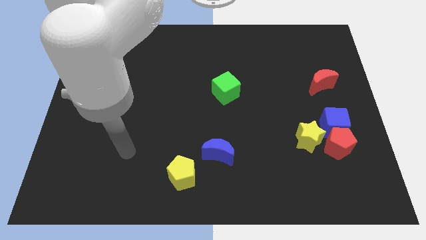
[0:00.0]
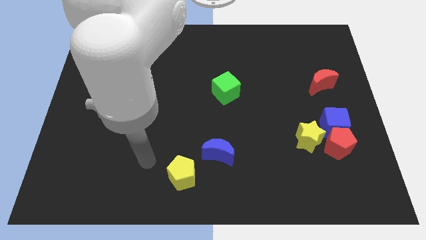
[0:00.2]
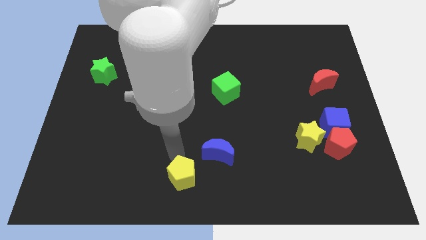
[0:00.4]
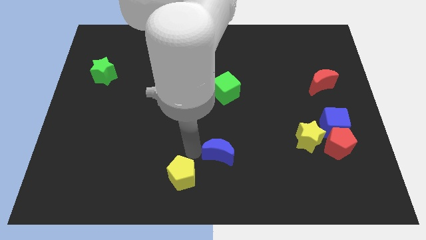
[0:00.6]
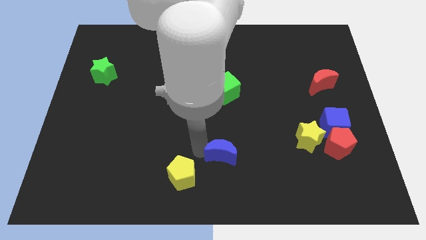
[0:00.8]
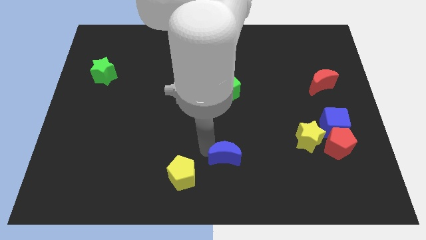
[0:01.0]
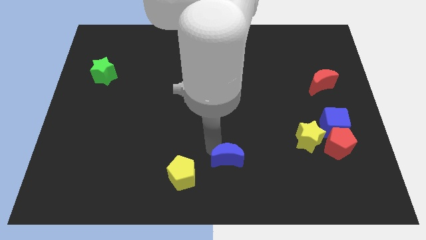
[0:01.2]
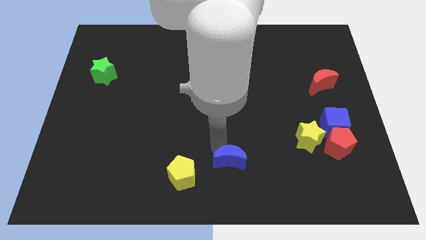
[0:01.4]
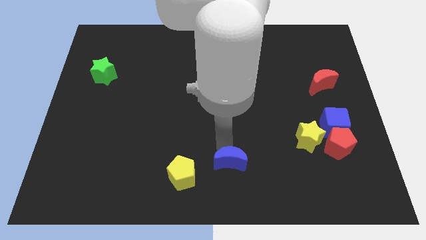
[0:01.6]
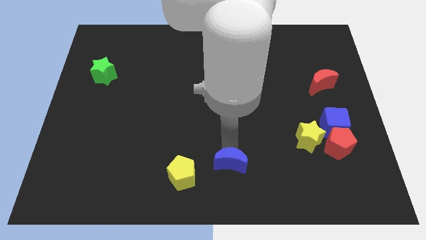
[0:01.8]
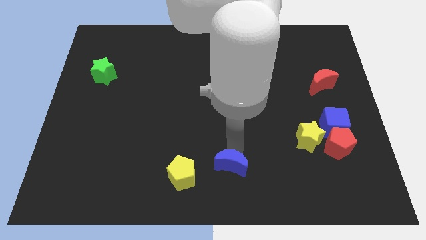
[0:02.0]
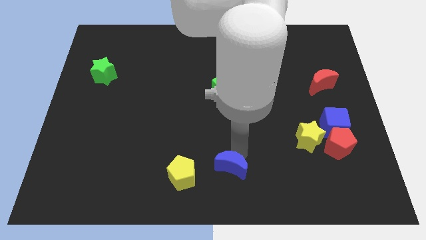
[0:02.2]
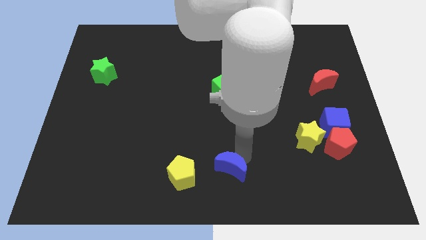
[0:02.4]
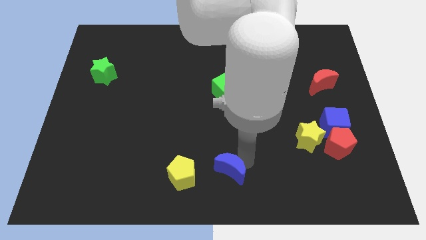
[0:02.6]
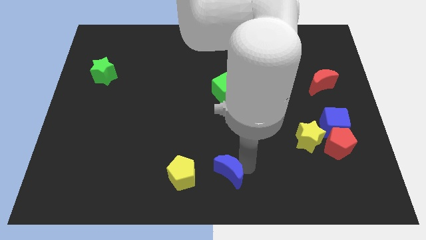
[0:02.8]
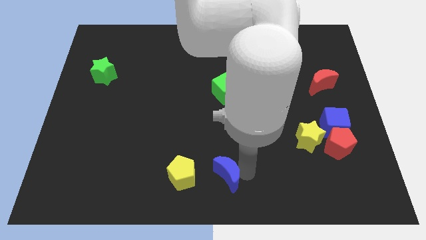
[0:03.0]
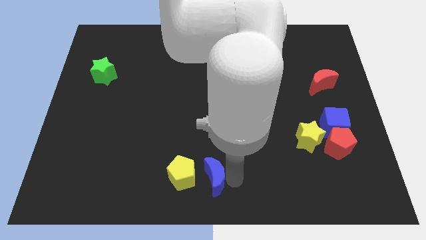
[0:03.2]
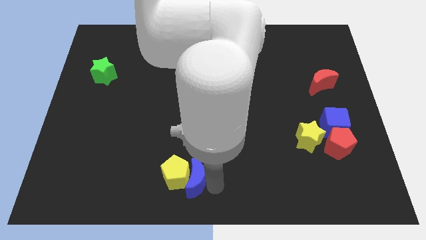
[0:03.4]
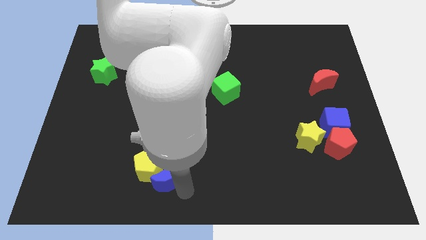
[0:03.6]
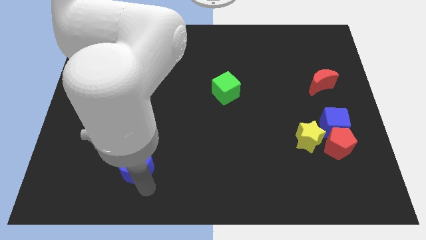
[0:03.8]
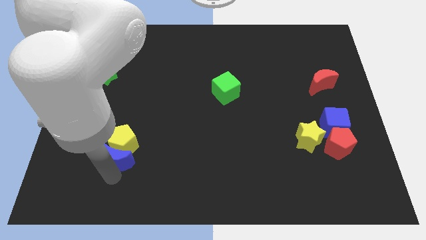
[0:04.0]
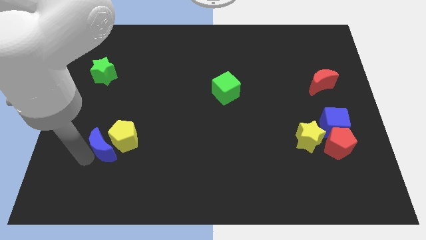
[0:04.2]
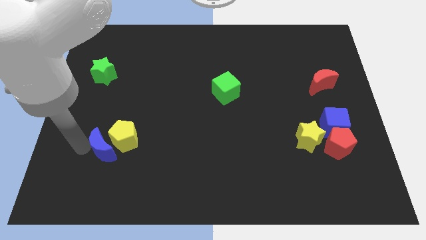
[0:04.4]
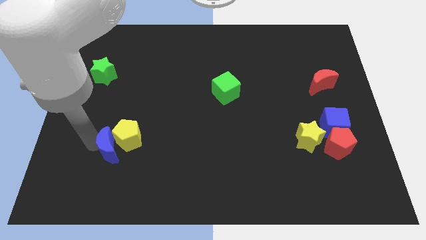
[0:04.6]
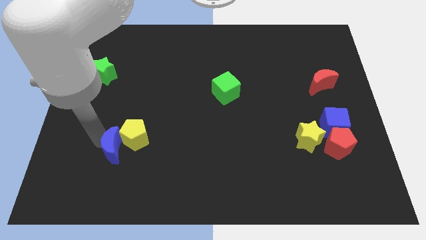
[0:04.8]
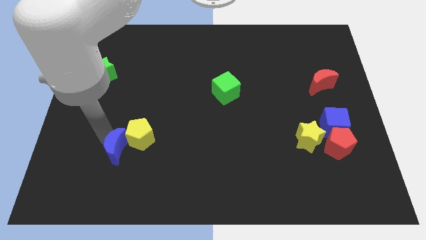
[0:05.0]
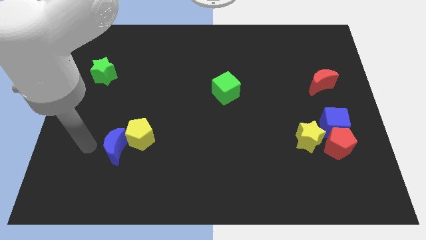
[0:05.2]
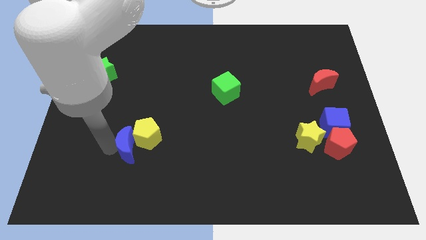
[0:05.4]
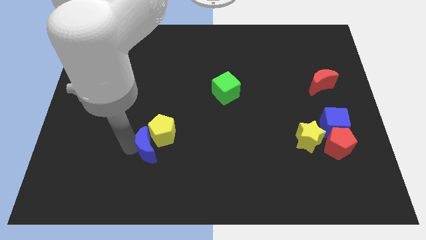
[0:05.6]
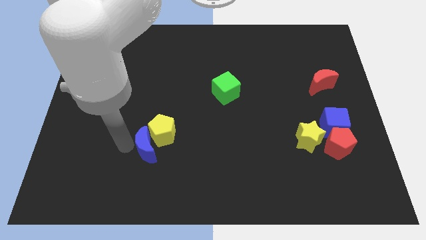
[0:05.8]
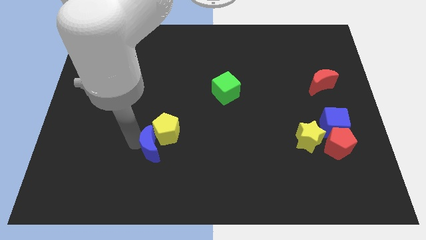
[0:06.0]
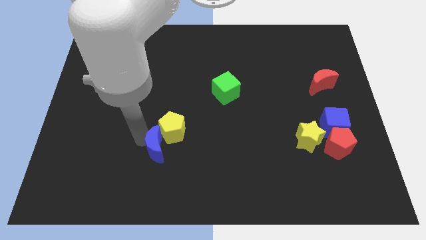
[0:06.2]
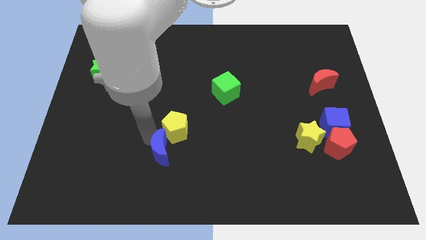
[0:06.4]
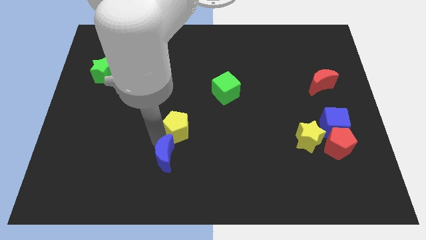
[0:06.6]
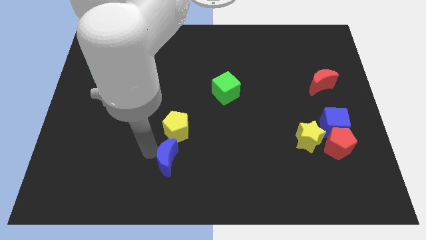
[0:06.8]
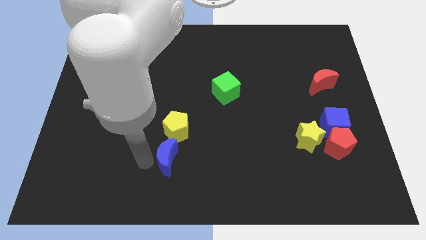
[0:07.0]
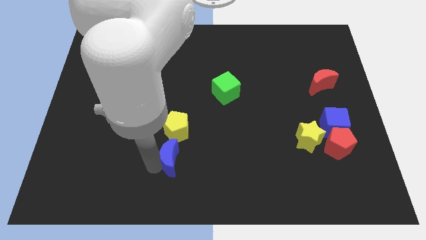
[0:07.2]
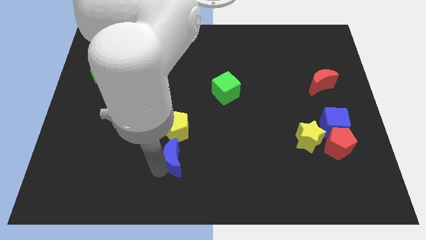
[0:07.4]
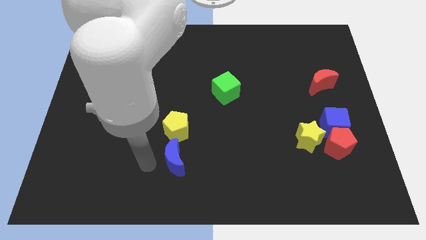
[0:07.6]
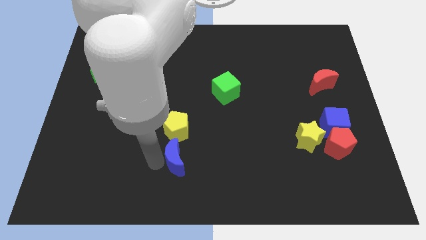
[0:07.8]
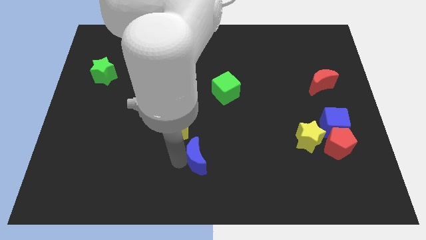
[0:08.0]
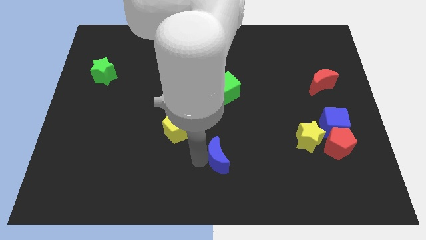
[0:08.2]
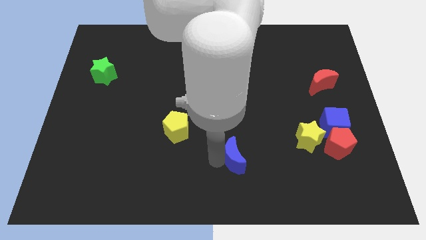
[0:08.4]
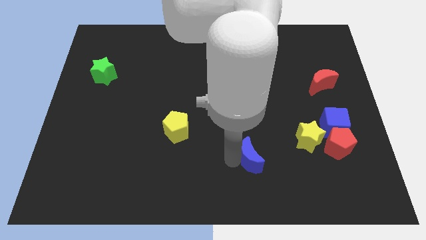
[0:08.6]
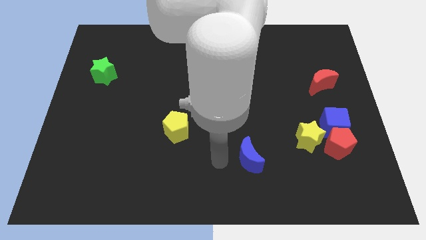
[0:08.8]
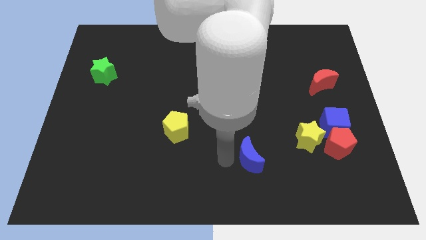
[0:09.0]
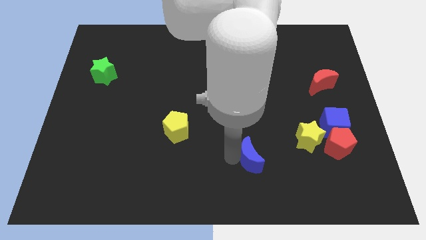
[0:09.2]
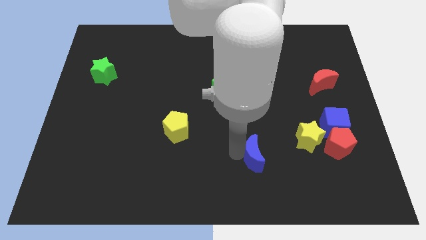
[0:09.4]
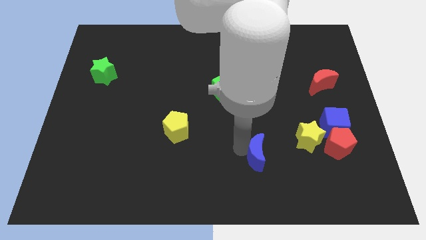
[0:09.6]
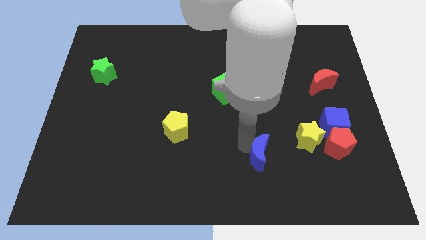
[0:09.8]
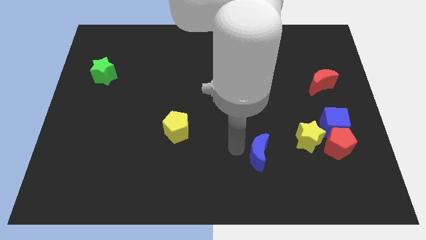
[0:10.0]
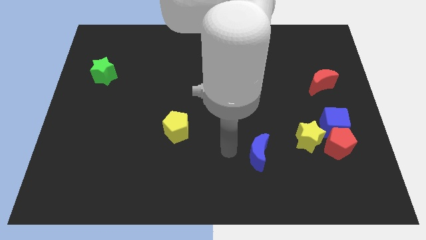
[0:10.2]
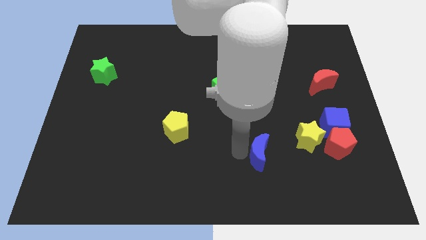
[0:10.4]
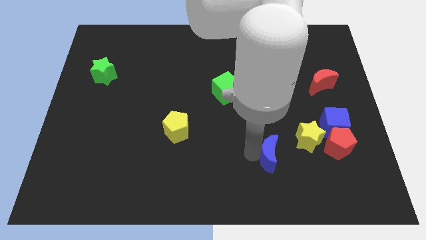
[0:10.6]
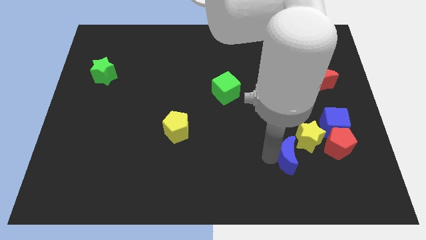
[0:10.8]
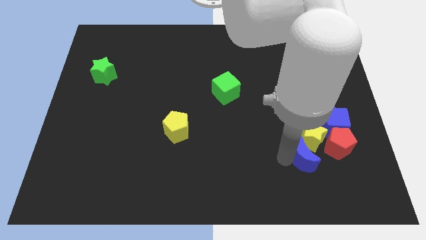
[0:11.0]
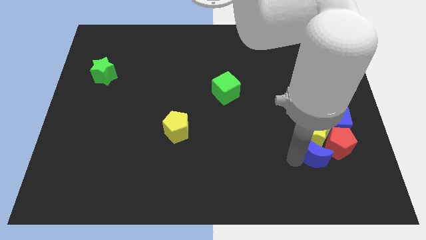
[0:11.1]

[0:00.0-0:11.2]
push the blue moon to the bottom right of the yellow star

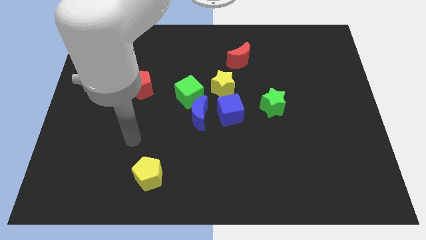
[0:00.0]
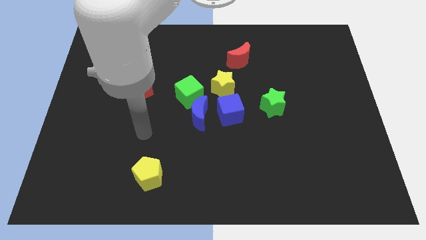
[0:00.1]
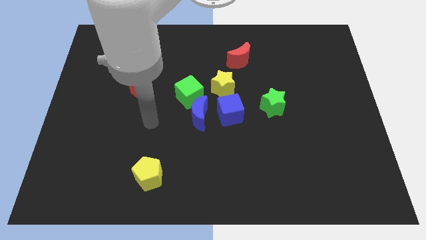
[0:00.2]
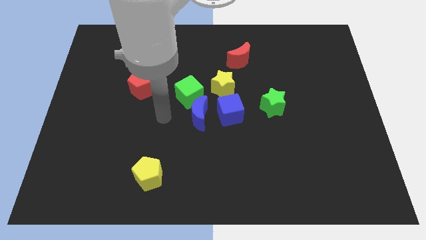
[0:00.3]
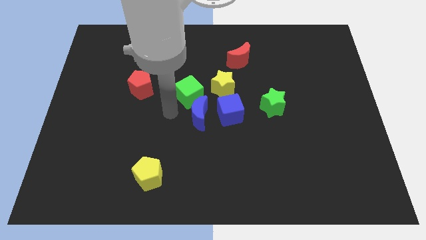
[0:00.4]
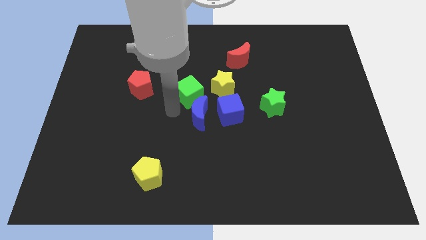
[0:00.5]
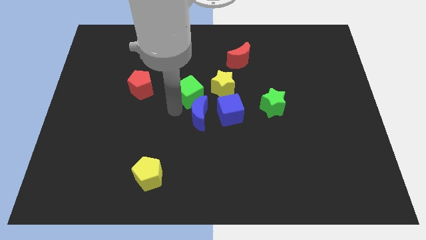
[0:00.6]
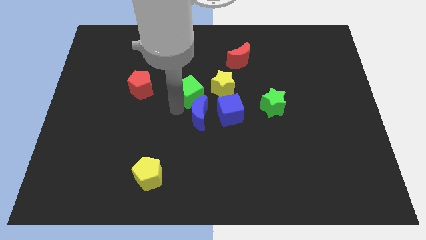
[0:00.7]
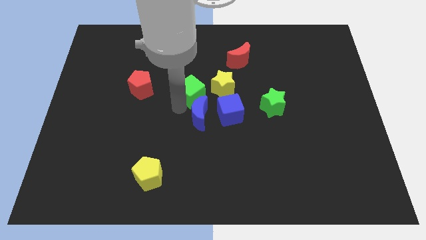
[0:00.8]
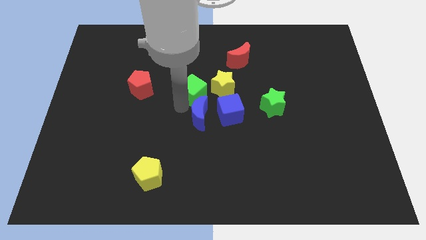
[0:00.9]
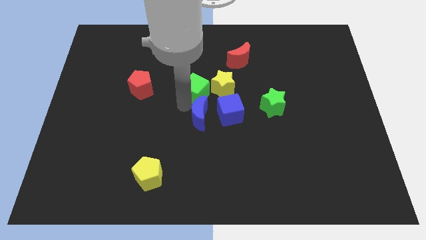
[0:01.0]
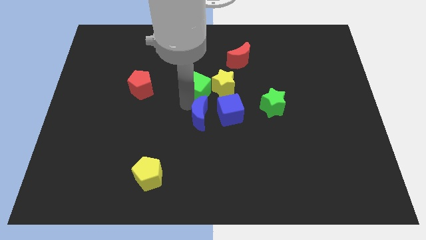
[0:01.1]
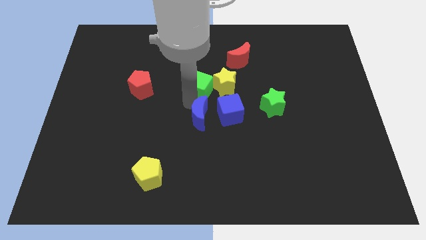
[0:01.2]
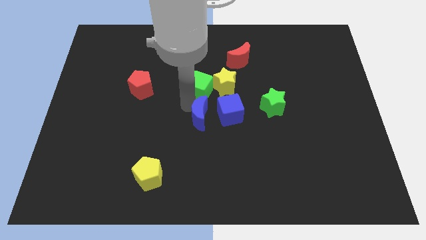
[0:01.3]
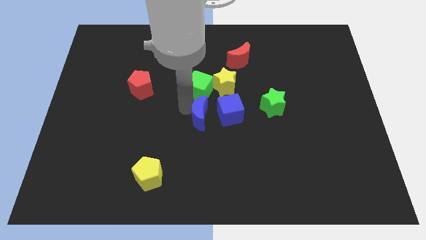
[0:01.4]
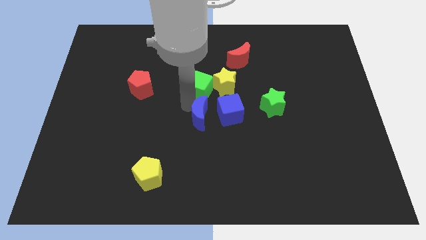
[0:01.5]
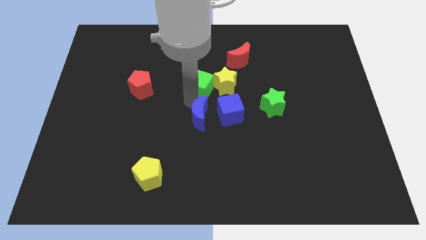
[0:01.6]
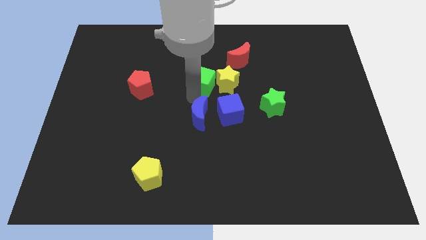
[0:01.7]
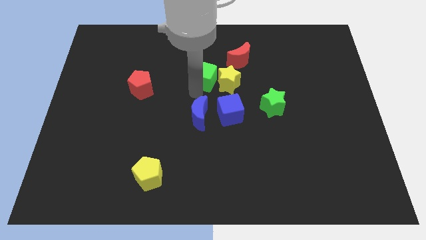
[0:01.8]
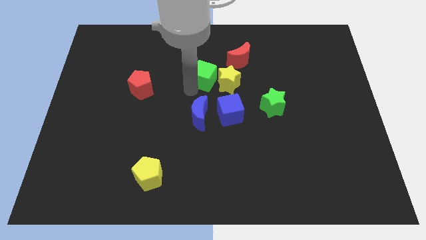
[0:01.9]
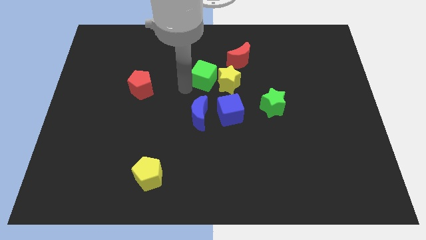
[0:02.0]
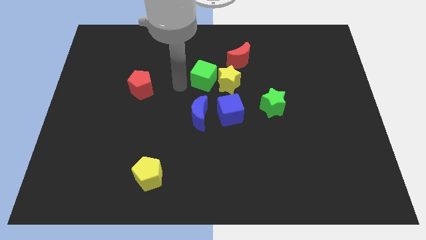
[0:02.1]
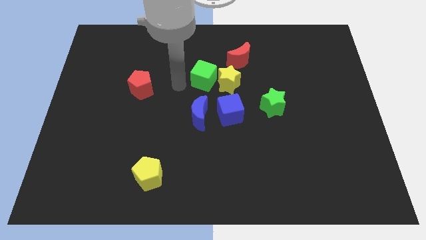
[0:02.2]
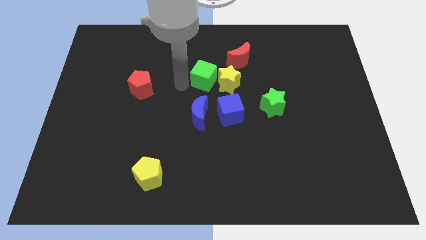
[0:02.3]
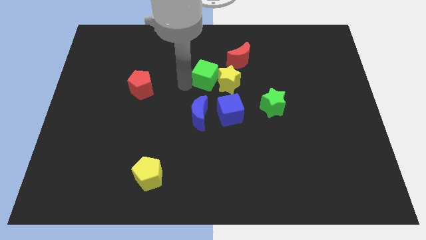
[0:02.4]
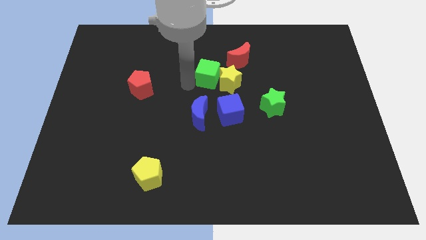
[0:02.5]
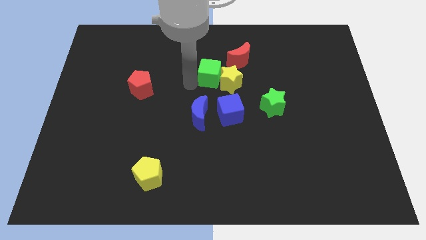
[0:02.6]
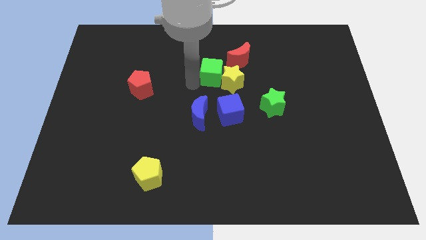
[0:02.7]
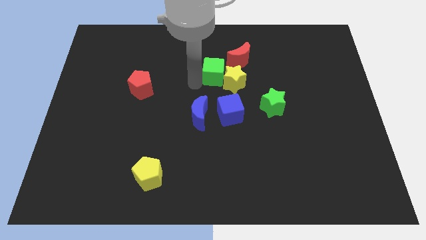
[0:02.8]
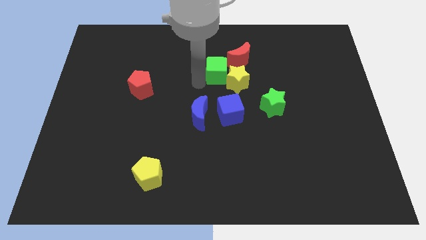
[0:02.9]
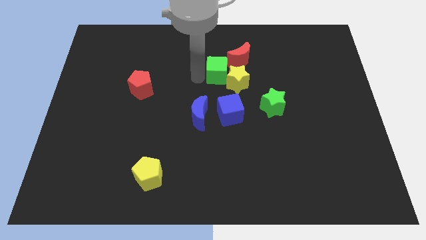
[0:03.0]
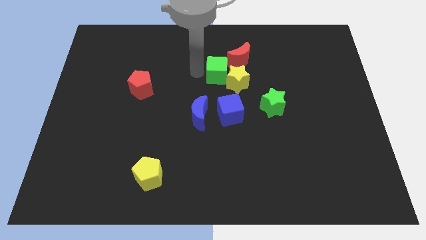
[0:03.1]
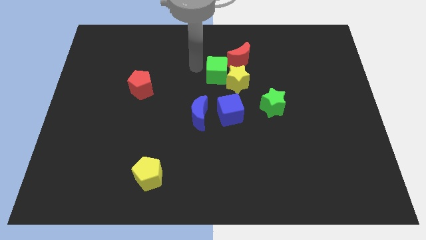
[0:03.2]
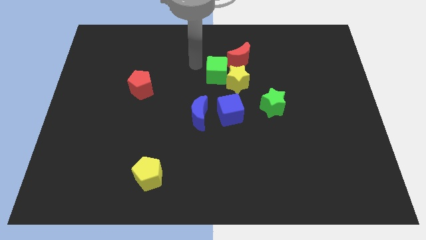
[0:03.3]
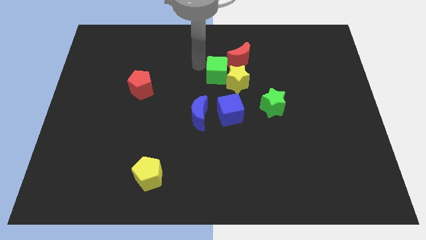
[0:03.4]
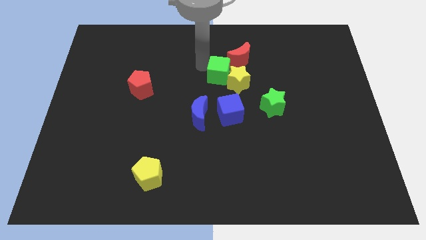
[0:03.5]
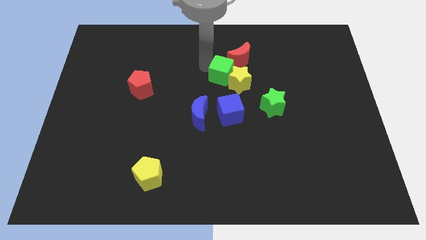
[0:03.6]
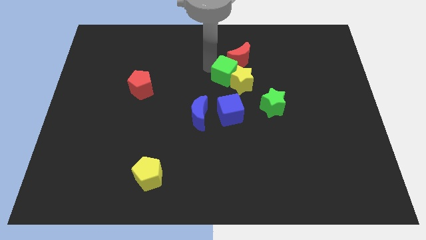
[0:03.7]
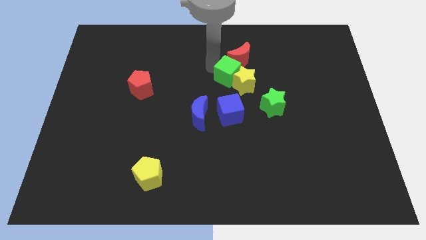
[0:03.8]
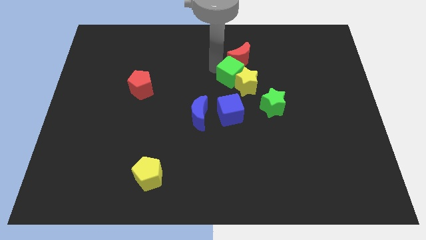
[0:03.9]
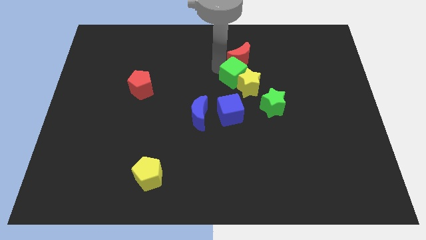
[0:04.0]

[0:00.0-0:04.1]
move the green cube diagonally up and to the left of the green star
